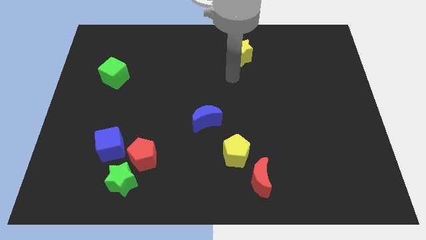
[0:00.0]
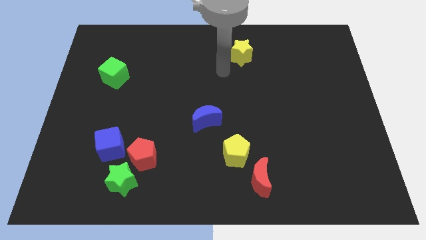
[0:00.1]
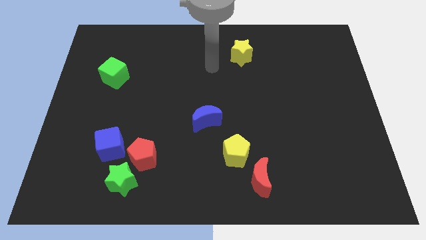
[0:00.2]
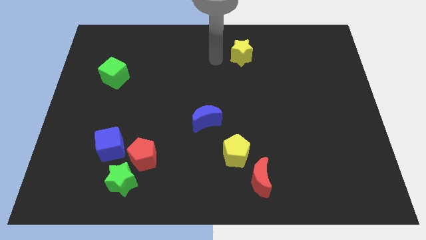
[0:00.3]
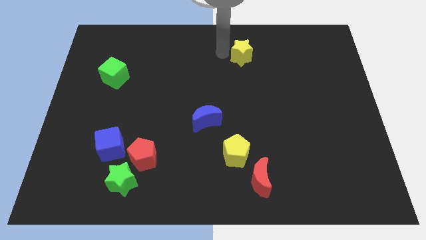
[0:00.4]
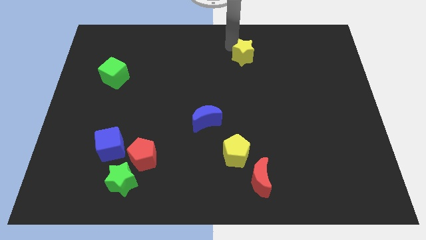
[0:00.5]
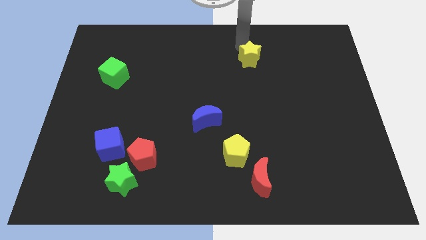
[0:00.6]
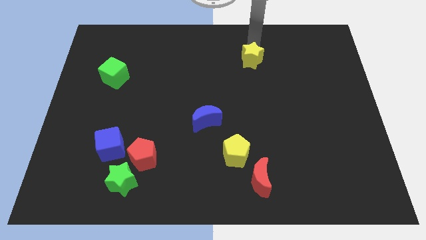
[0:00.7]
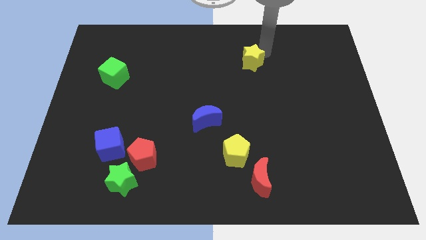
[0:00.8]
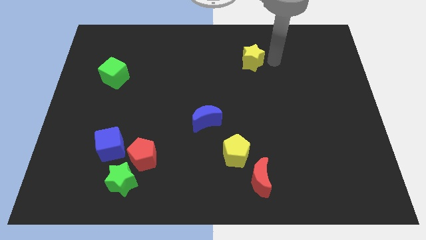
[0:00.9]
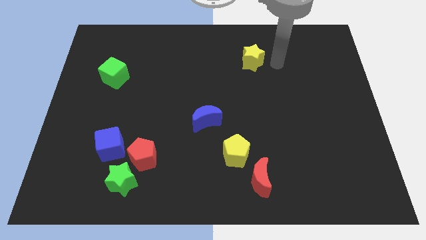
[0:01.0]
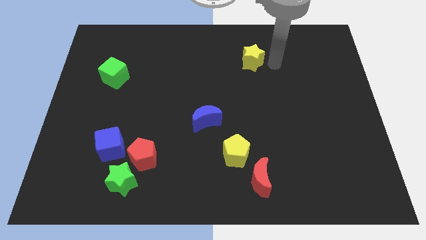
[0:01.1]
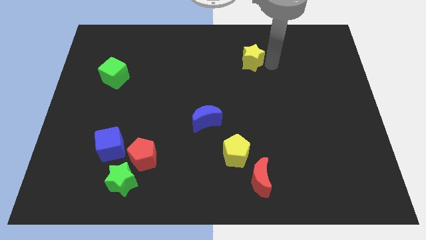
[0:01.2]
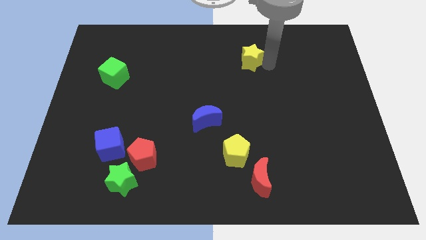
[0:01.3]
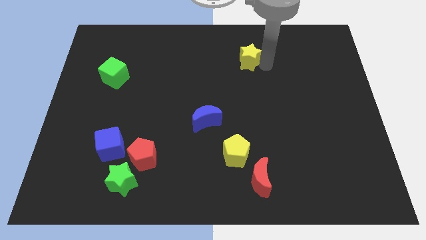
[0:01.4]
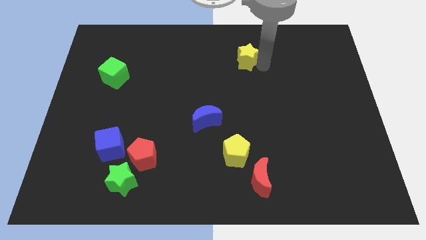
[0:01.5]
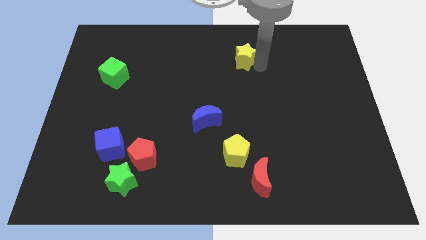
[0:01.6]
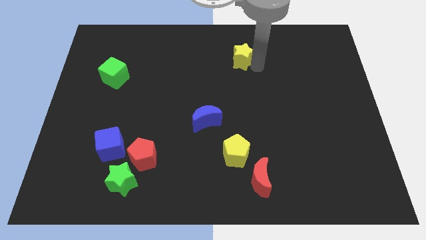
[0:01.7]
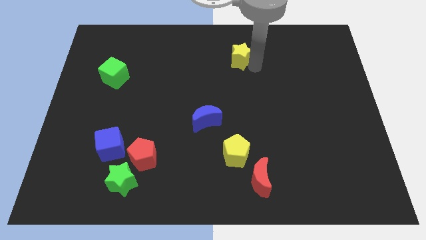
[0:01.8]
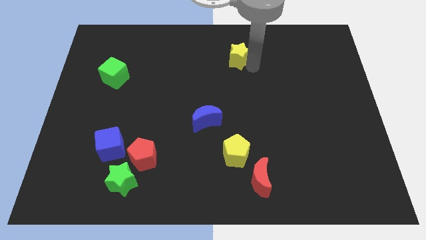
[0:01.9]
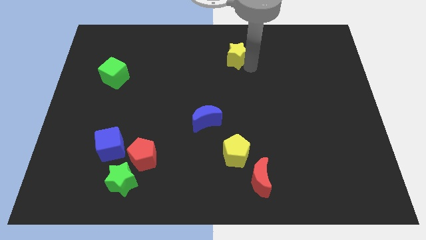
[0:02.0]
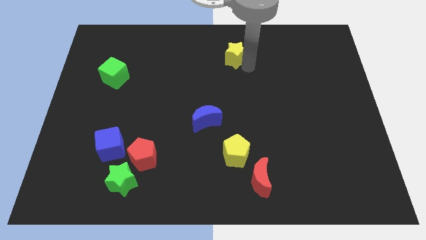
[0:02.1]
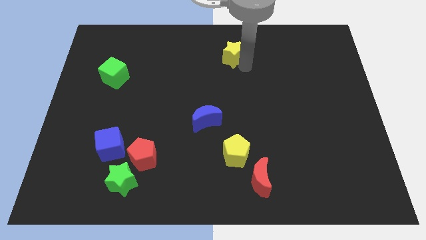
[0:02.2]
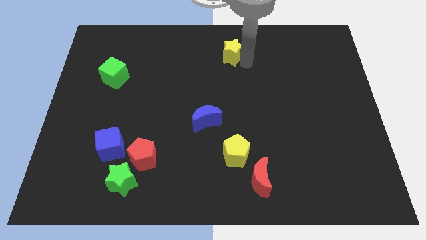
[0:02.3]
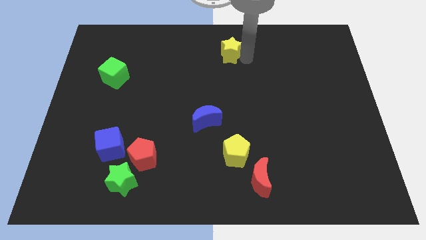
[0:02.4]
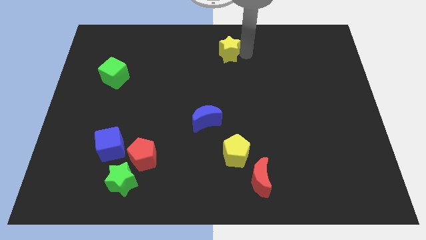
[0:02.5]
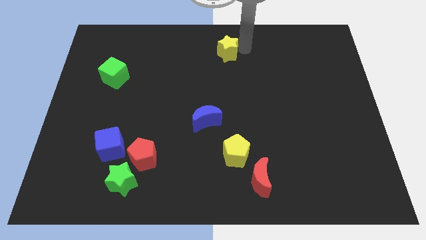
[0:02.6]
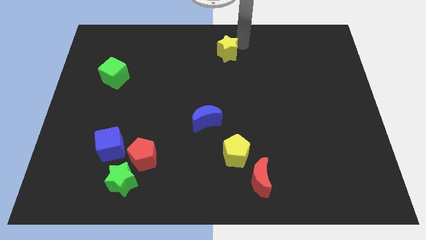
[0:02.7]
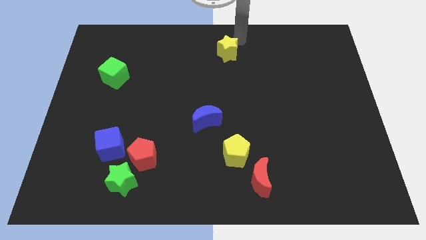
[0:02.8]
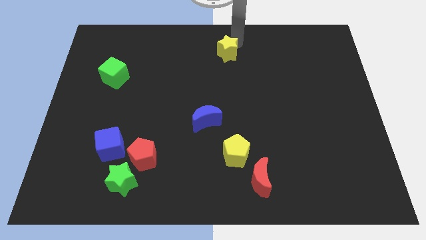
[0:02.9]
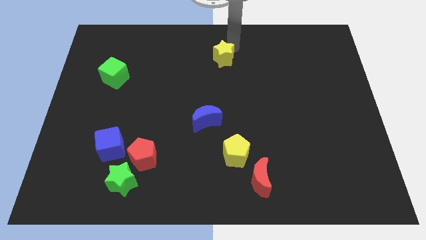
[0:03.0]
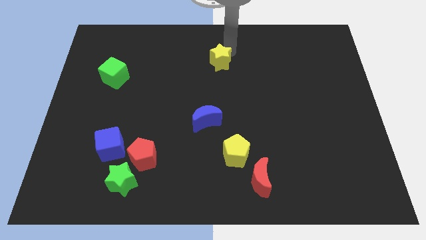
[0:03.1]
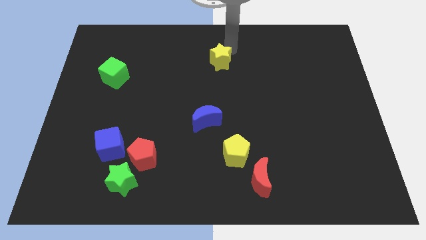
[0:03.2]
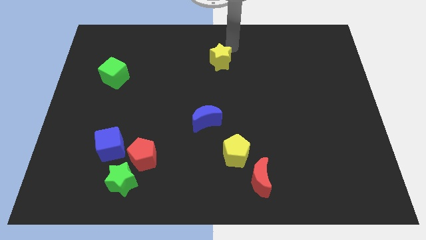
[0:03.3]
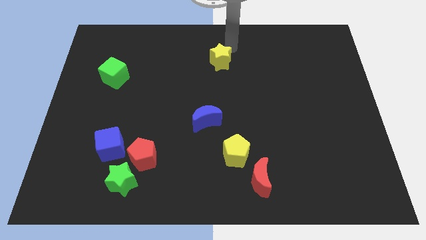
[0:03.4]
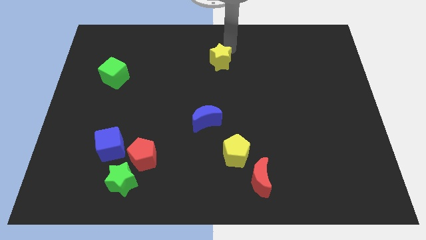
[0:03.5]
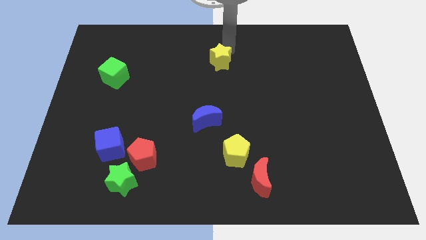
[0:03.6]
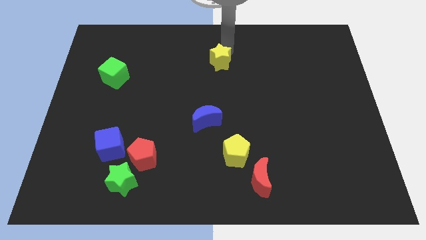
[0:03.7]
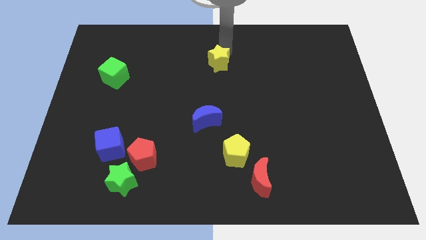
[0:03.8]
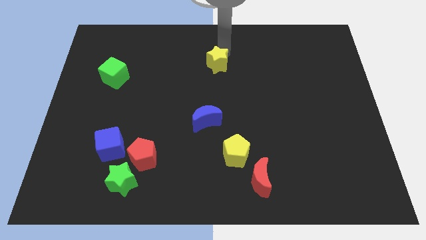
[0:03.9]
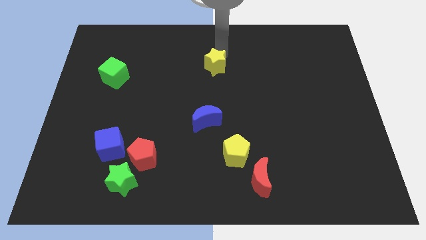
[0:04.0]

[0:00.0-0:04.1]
push the yellow star diagonally down and to the left a bit

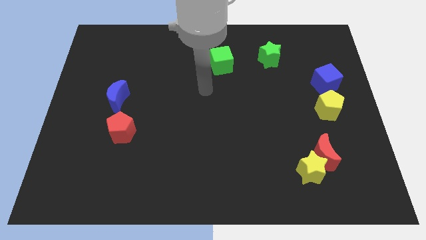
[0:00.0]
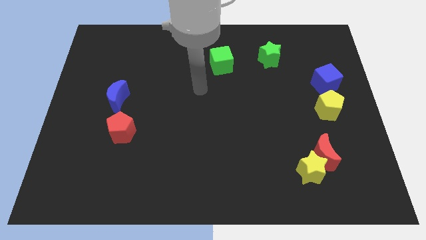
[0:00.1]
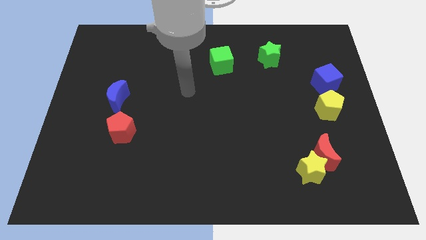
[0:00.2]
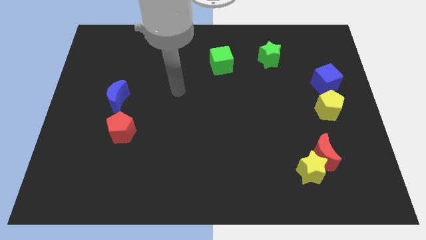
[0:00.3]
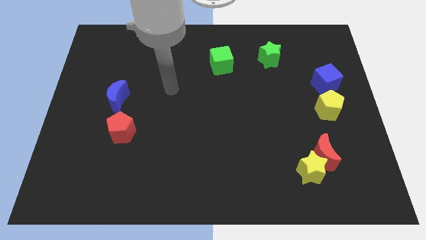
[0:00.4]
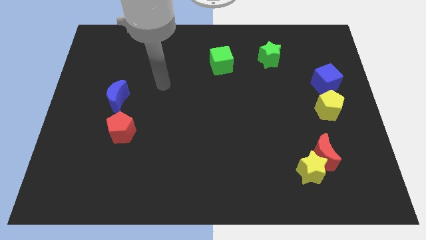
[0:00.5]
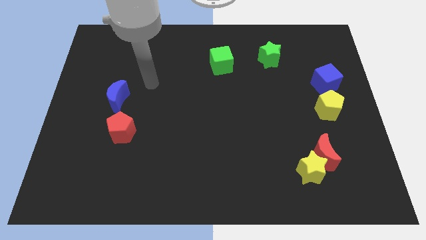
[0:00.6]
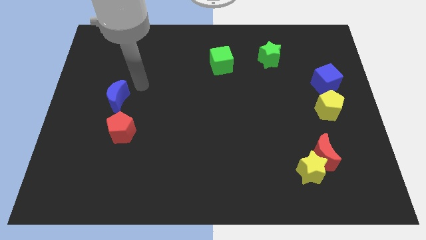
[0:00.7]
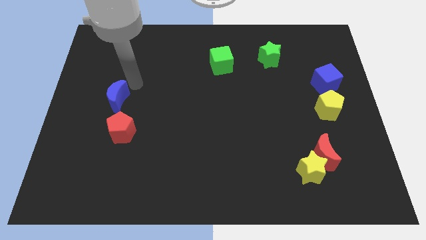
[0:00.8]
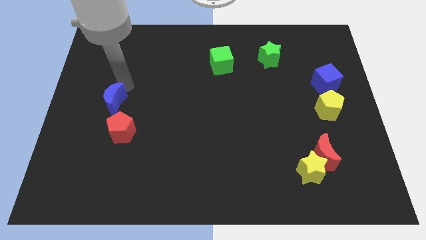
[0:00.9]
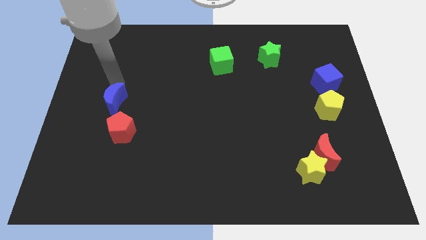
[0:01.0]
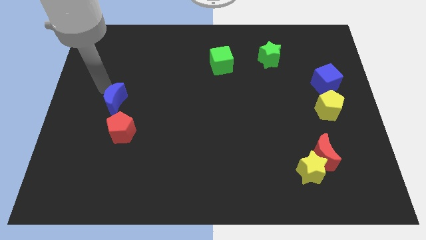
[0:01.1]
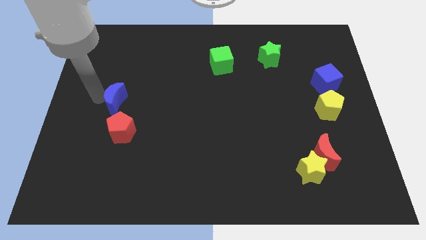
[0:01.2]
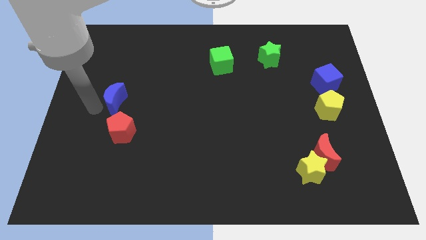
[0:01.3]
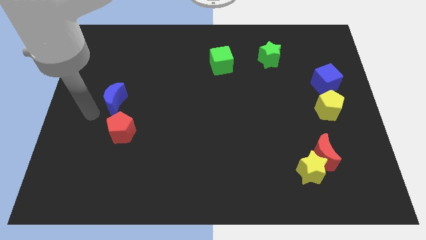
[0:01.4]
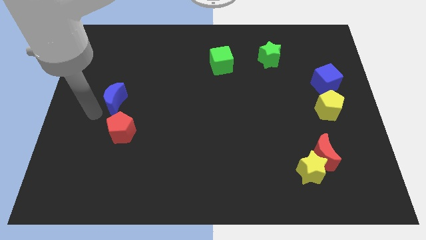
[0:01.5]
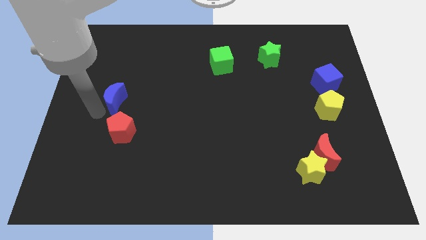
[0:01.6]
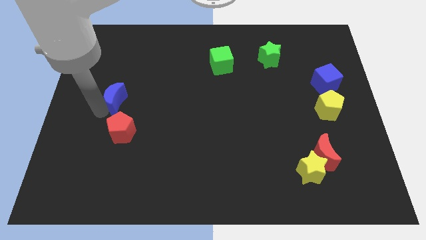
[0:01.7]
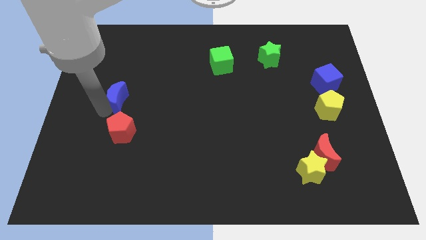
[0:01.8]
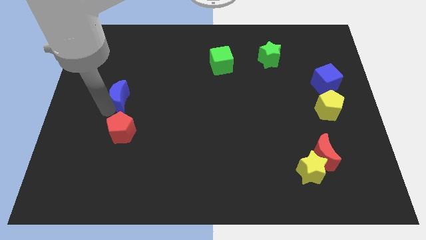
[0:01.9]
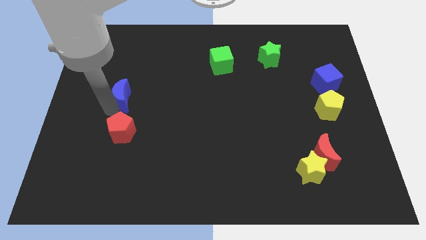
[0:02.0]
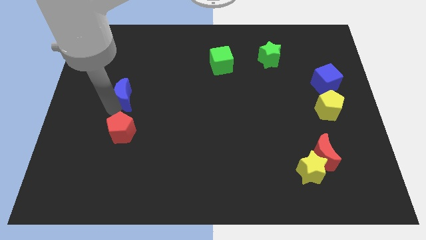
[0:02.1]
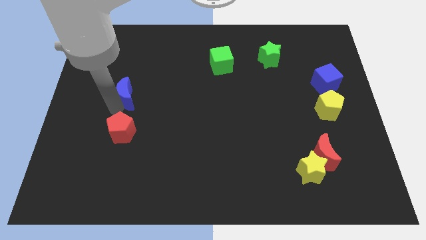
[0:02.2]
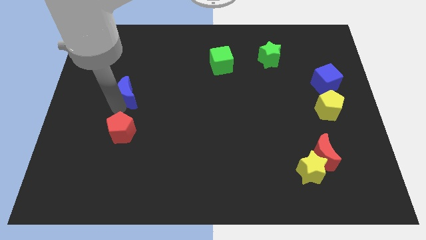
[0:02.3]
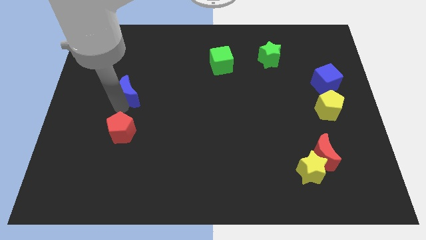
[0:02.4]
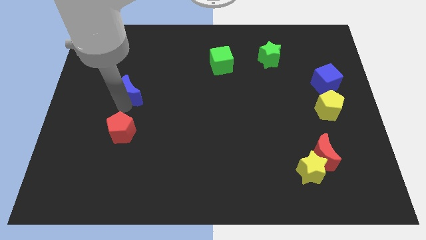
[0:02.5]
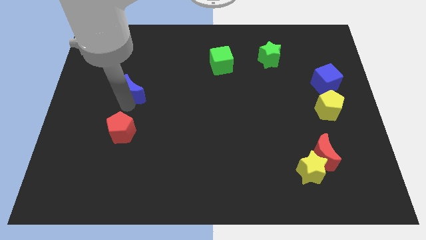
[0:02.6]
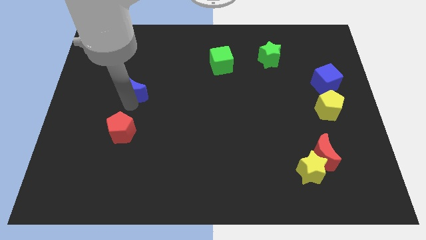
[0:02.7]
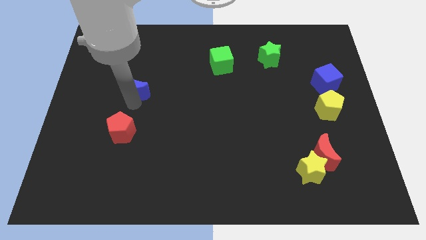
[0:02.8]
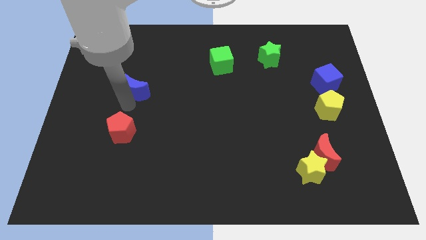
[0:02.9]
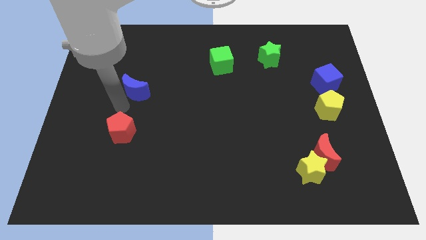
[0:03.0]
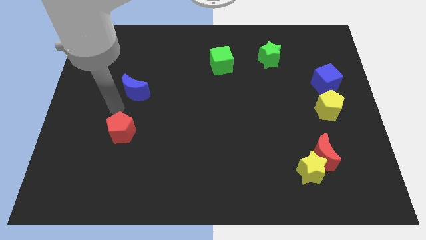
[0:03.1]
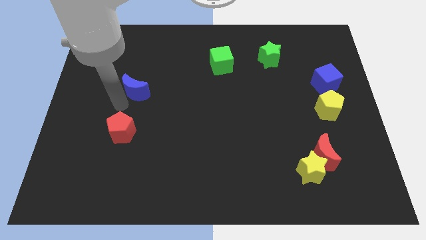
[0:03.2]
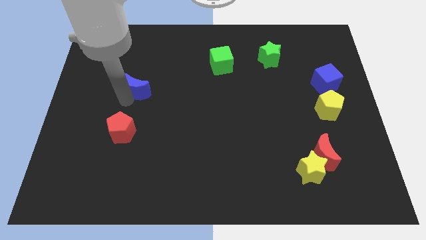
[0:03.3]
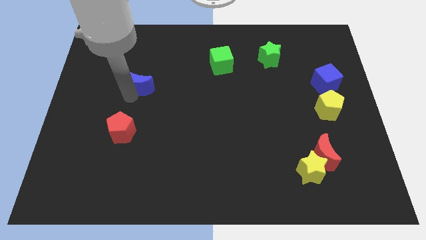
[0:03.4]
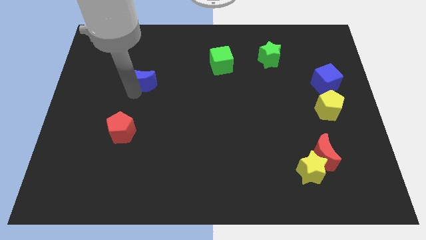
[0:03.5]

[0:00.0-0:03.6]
move the blue moon upwards and right a little bit

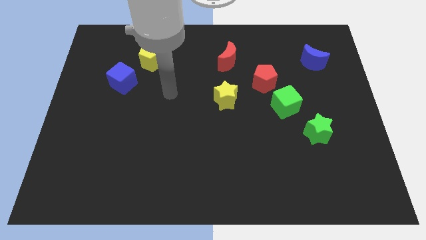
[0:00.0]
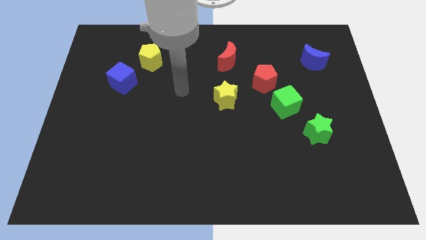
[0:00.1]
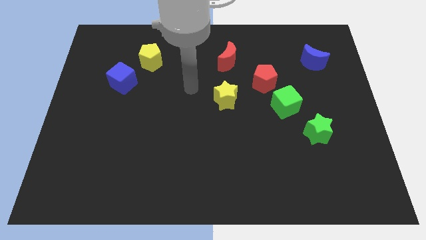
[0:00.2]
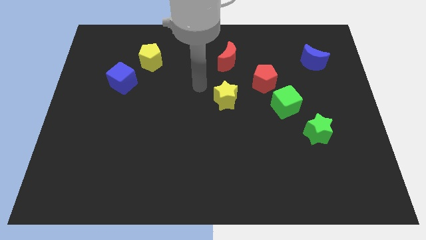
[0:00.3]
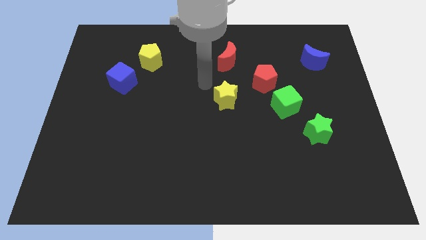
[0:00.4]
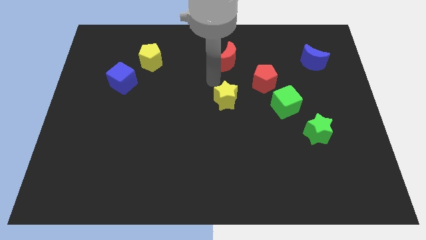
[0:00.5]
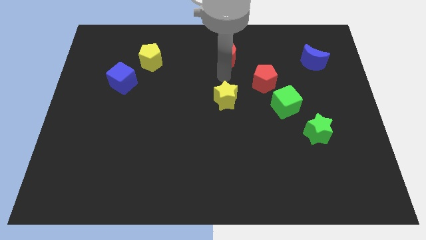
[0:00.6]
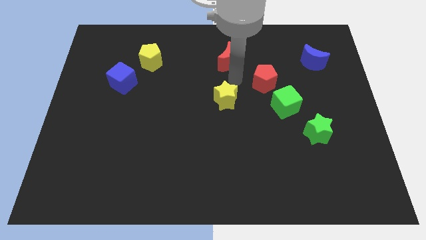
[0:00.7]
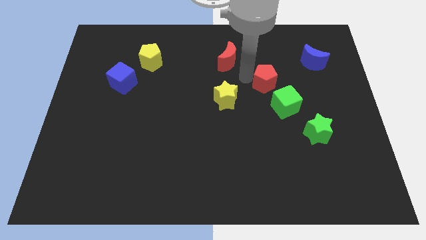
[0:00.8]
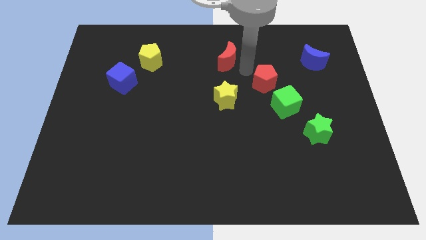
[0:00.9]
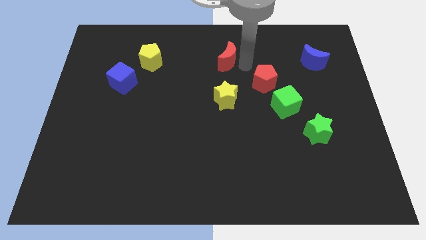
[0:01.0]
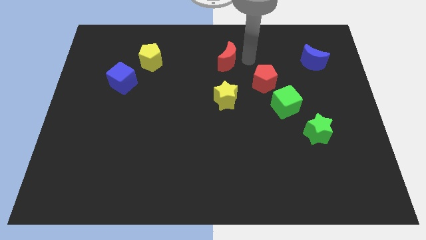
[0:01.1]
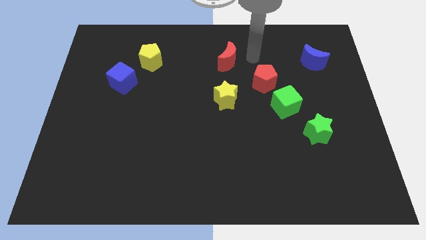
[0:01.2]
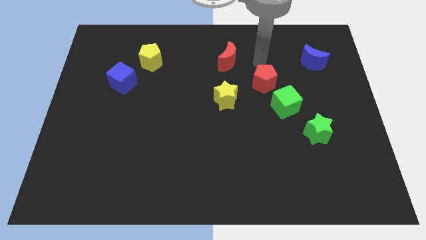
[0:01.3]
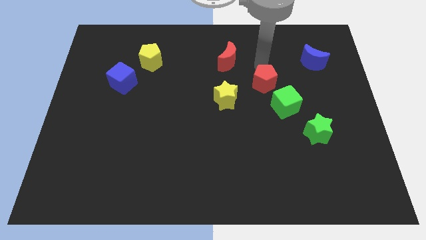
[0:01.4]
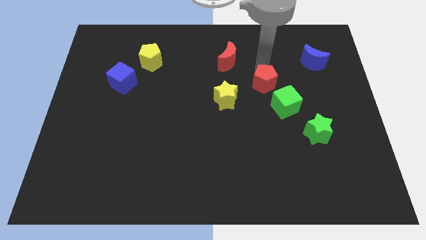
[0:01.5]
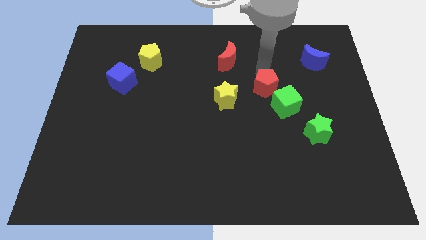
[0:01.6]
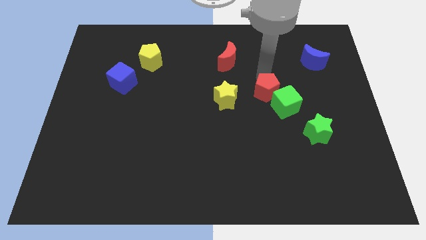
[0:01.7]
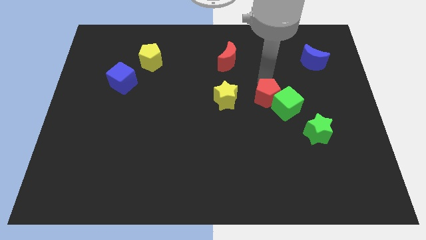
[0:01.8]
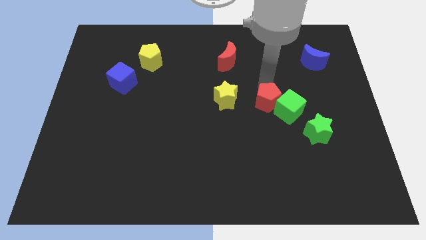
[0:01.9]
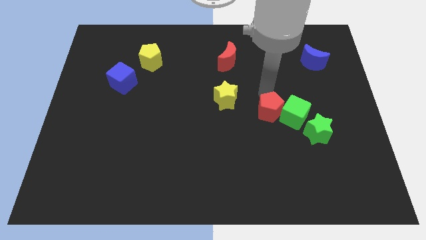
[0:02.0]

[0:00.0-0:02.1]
slide the red pentagon down somewhat
